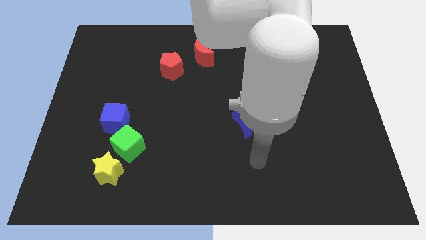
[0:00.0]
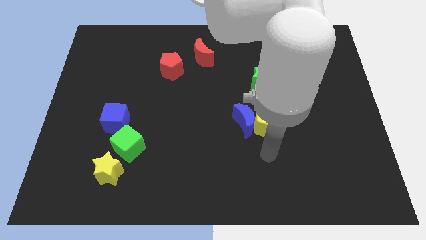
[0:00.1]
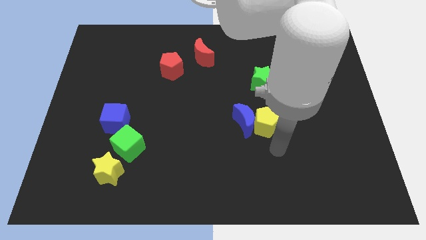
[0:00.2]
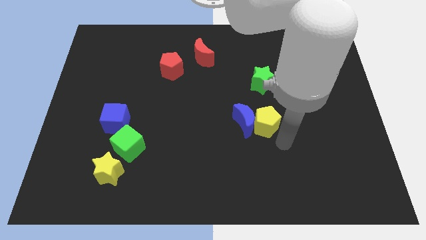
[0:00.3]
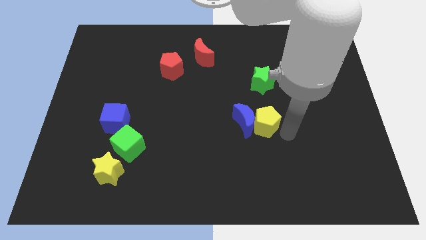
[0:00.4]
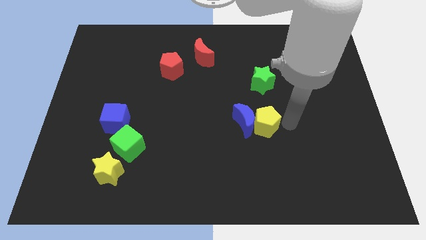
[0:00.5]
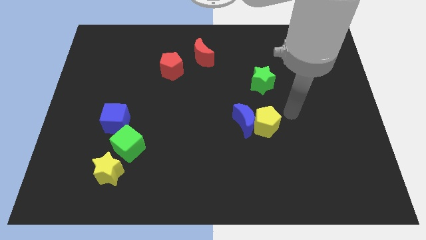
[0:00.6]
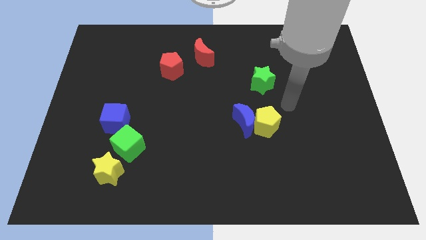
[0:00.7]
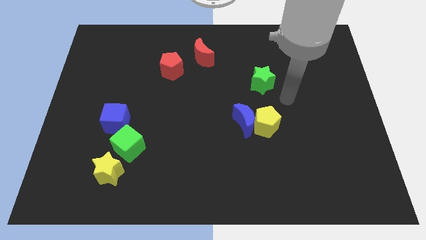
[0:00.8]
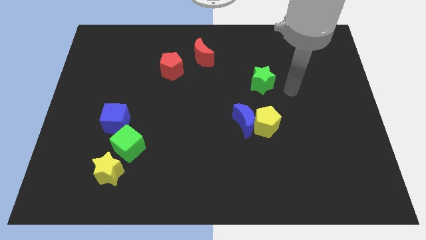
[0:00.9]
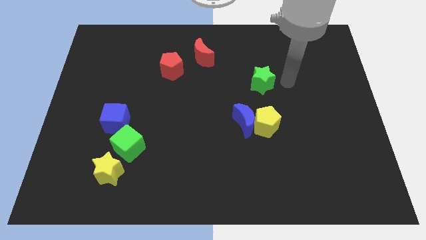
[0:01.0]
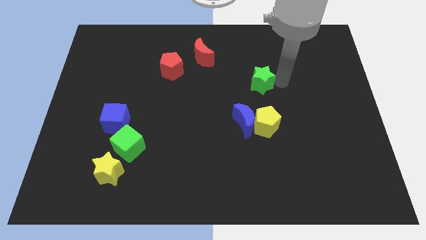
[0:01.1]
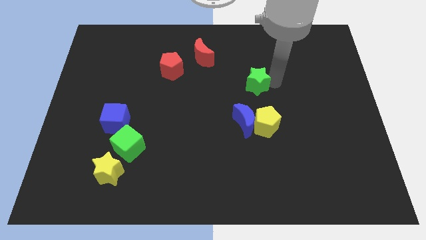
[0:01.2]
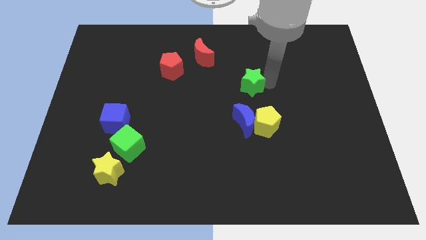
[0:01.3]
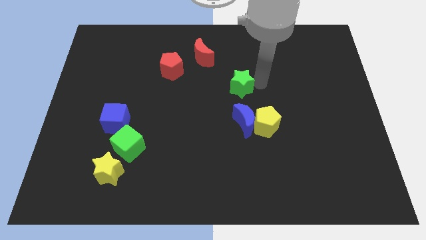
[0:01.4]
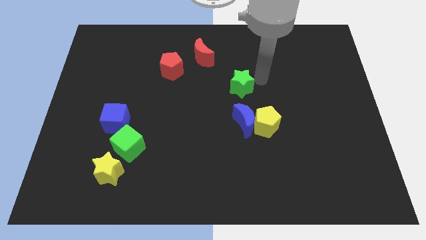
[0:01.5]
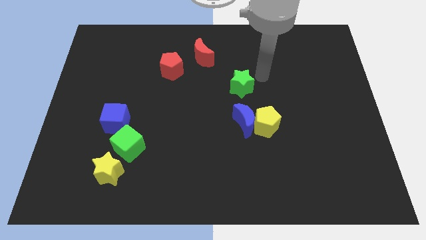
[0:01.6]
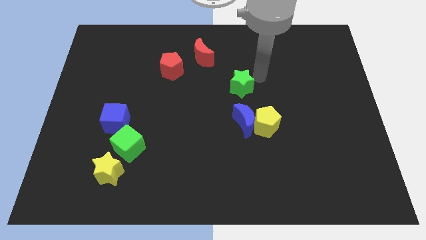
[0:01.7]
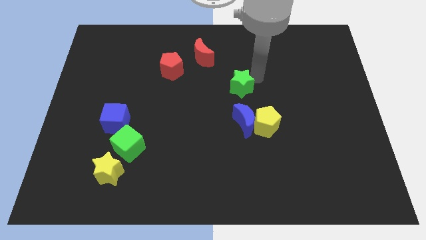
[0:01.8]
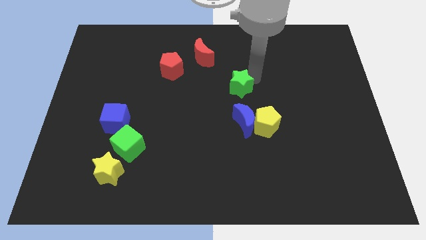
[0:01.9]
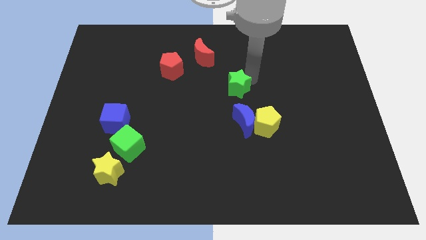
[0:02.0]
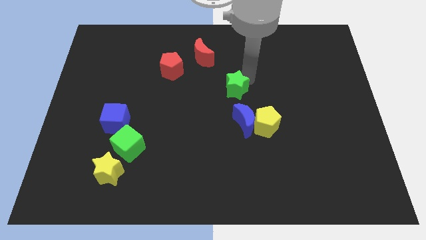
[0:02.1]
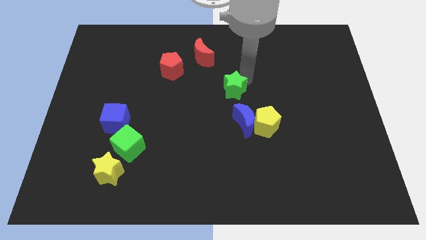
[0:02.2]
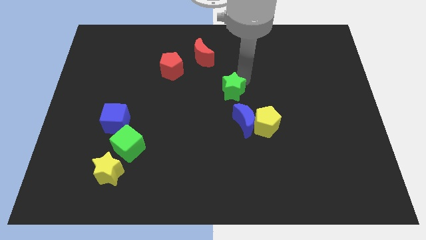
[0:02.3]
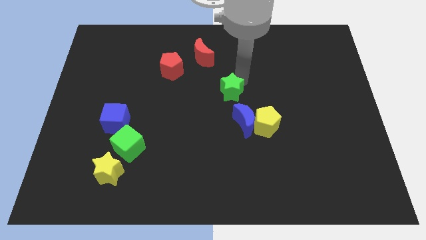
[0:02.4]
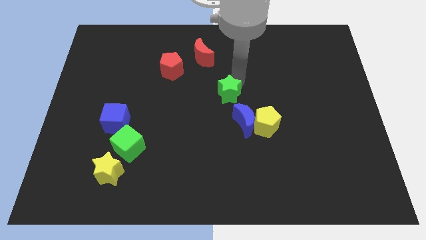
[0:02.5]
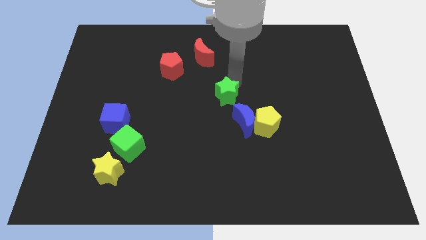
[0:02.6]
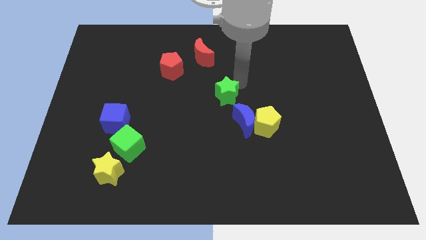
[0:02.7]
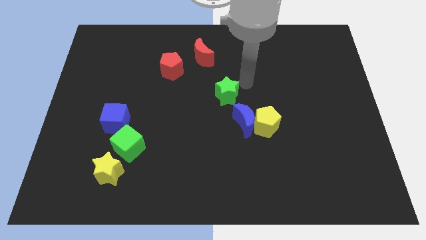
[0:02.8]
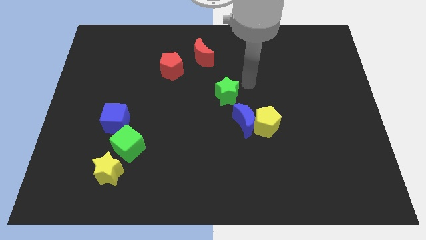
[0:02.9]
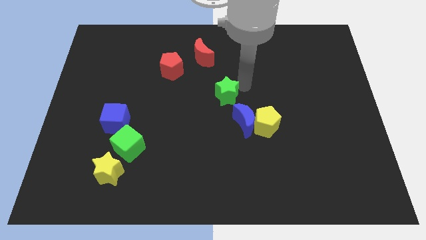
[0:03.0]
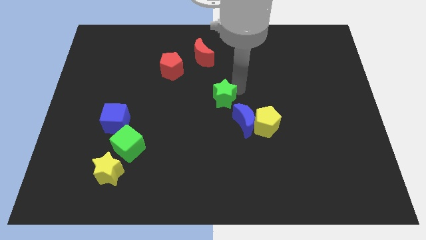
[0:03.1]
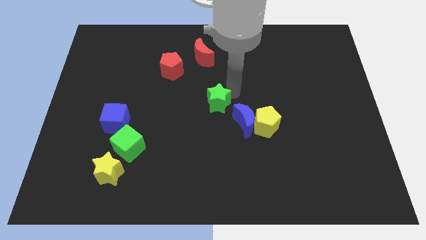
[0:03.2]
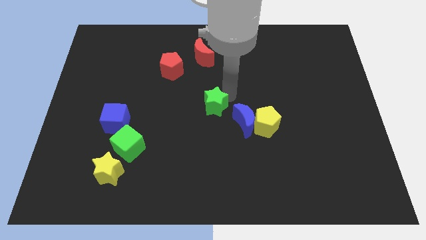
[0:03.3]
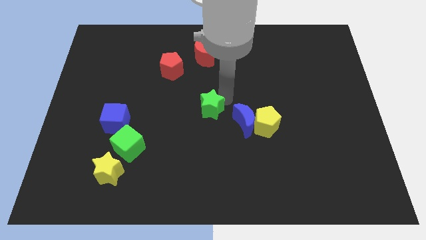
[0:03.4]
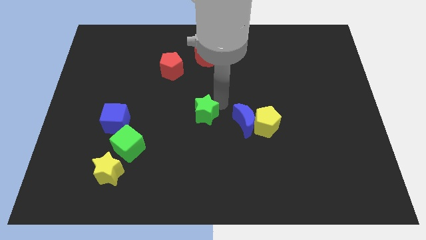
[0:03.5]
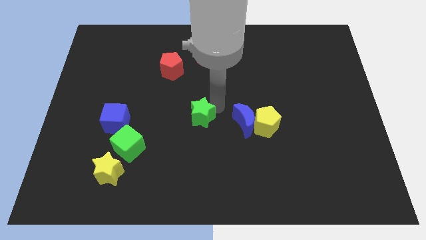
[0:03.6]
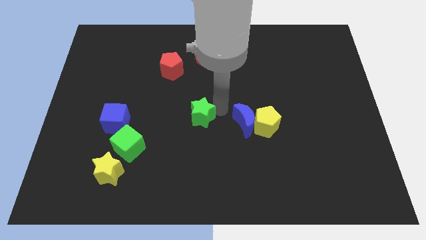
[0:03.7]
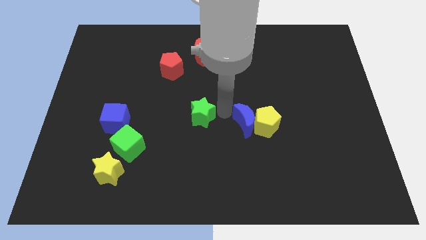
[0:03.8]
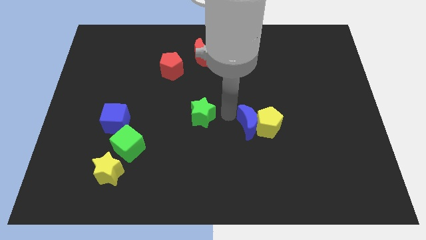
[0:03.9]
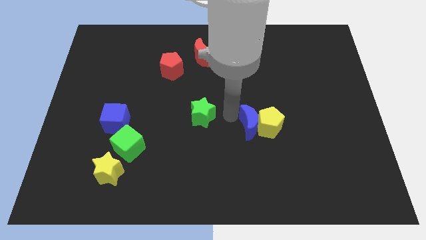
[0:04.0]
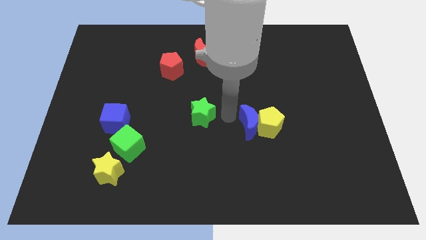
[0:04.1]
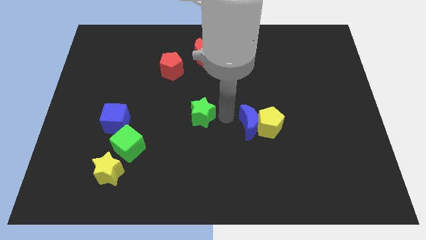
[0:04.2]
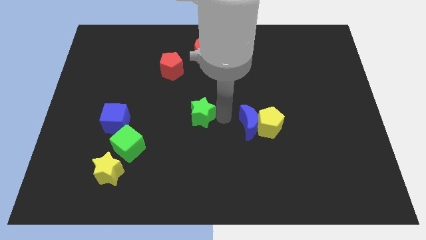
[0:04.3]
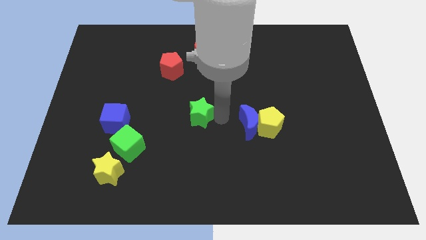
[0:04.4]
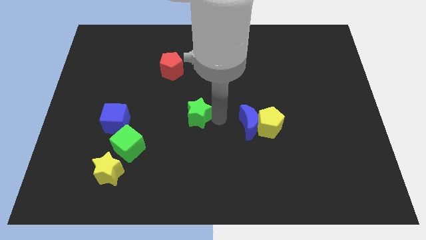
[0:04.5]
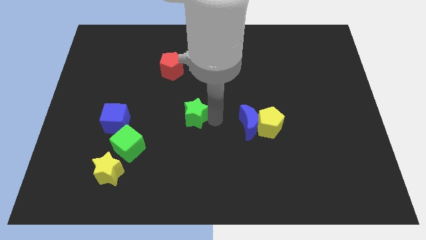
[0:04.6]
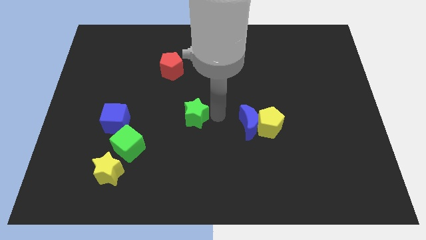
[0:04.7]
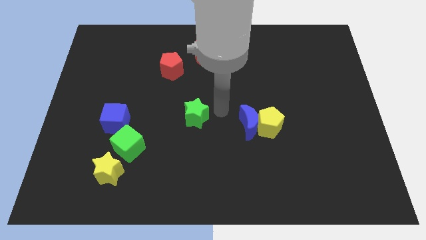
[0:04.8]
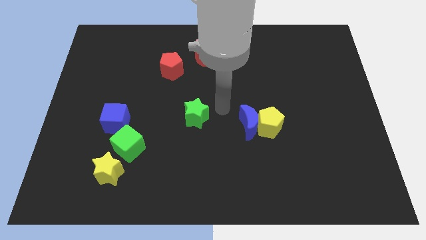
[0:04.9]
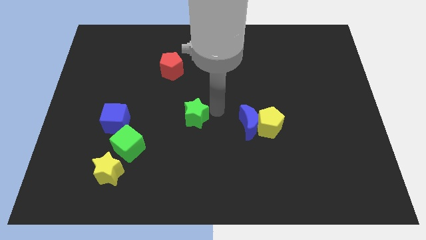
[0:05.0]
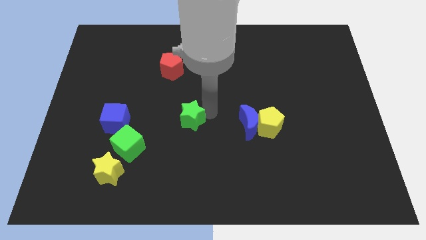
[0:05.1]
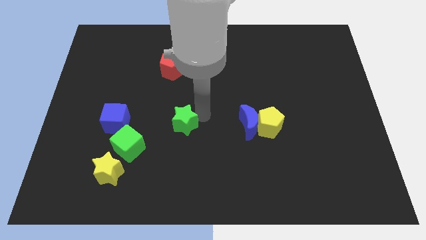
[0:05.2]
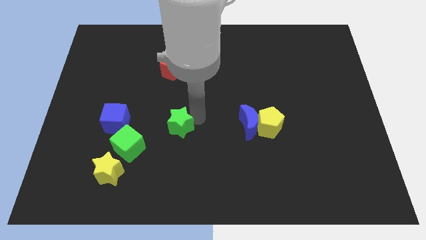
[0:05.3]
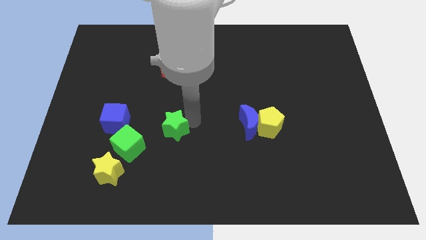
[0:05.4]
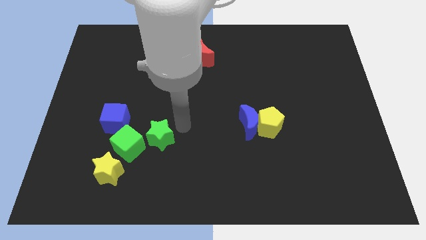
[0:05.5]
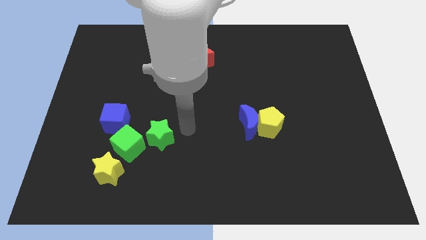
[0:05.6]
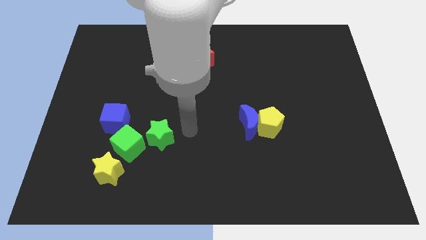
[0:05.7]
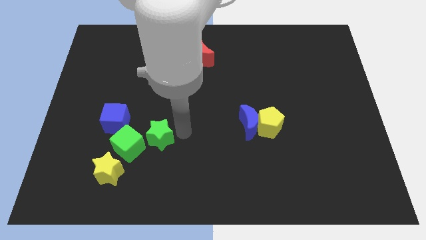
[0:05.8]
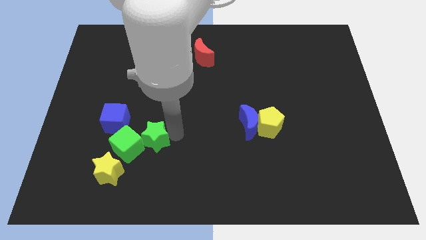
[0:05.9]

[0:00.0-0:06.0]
move the green star towards the green cube

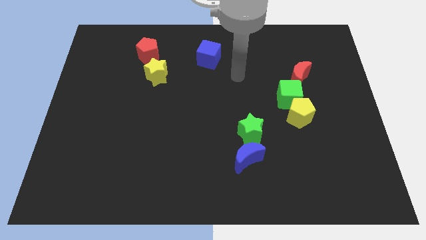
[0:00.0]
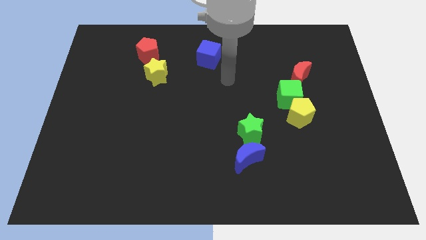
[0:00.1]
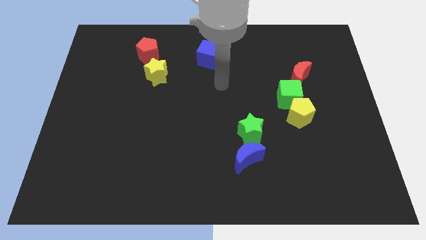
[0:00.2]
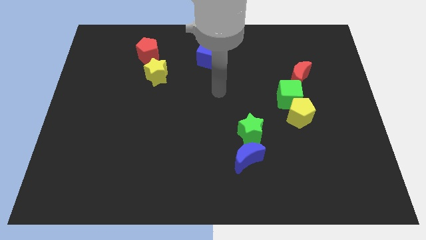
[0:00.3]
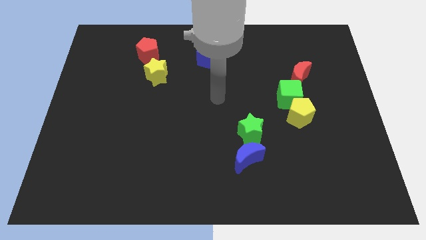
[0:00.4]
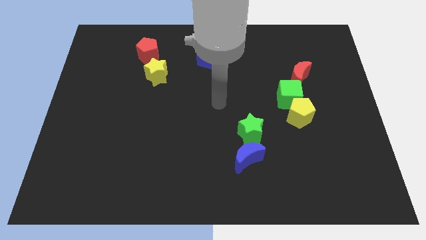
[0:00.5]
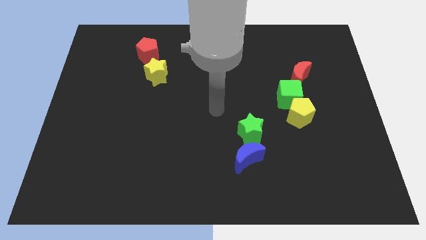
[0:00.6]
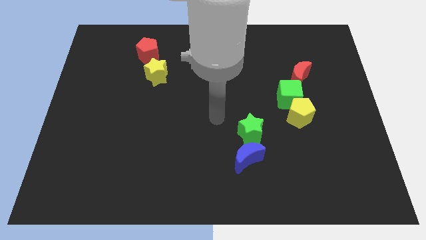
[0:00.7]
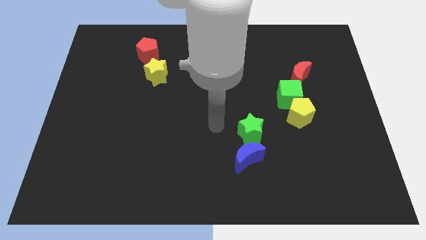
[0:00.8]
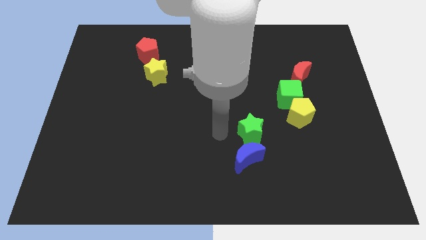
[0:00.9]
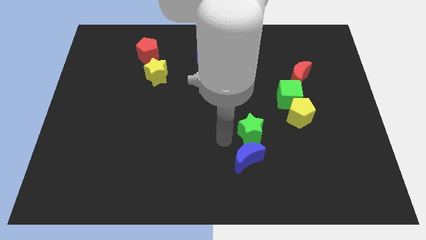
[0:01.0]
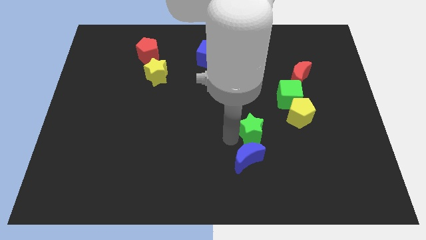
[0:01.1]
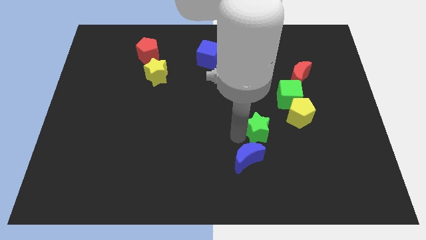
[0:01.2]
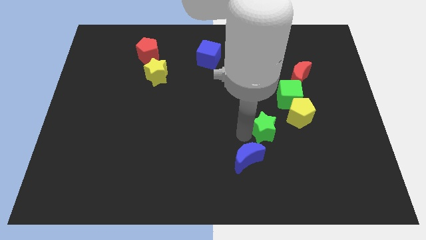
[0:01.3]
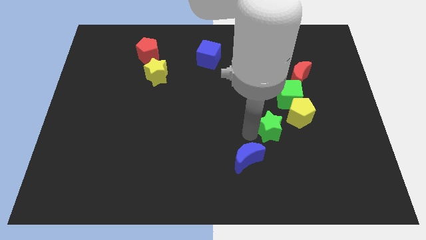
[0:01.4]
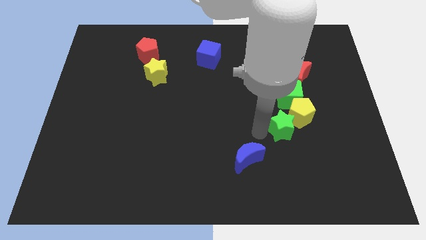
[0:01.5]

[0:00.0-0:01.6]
push the green star towards the yellow pentagon
